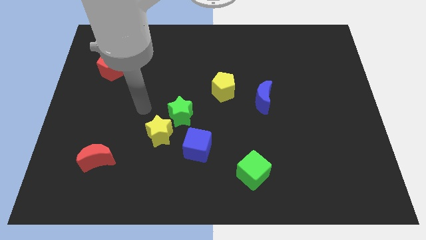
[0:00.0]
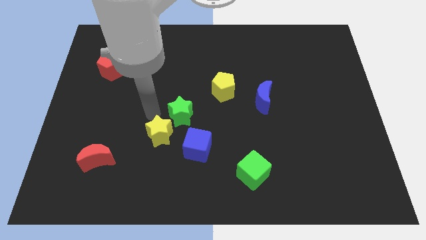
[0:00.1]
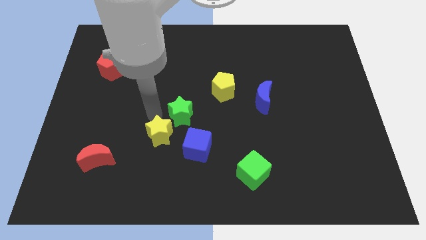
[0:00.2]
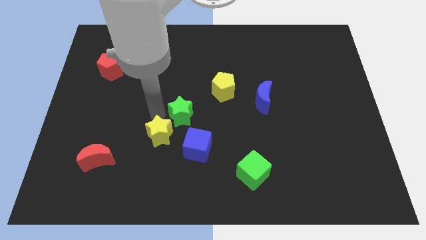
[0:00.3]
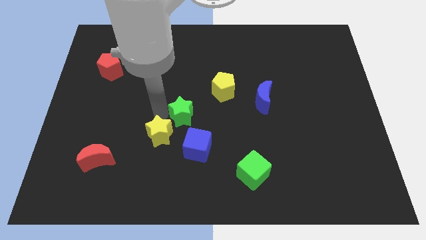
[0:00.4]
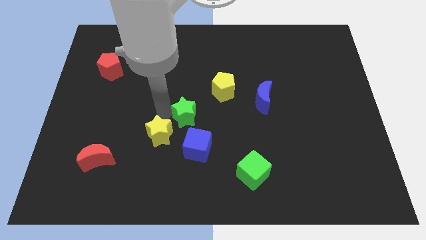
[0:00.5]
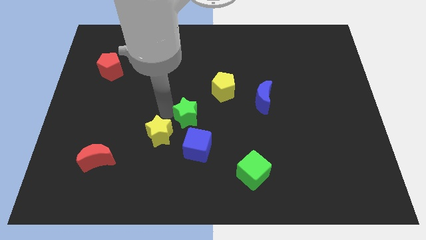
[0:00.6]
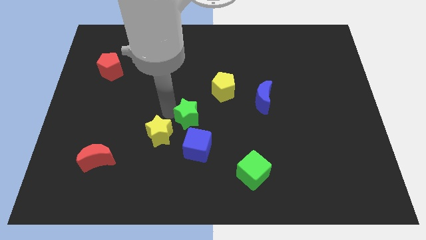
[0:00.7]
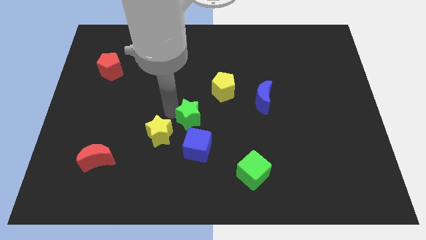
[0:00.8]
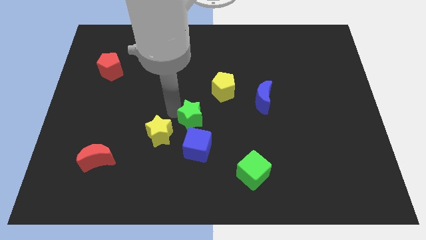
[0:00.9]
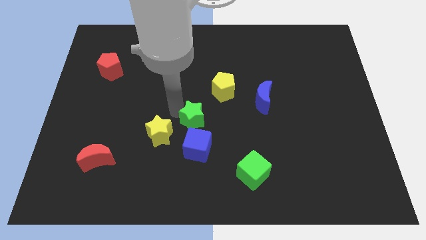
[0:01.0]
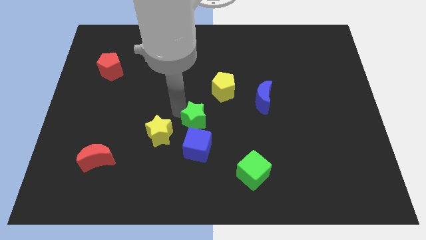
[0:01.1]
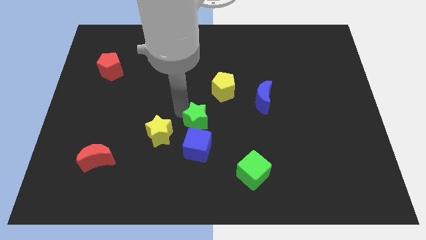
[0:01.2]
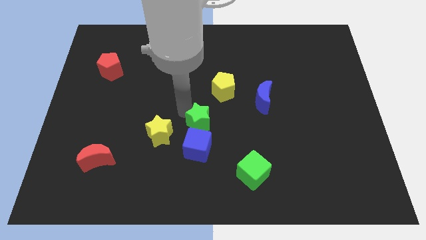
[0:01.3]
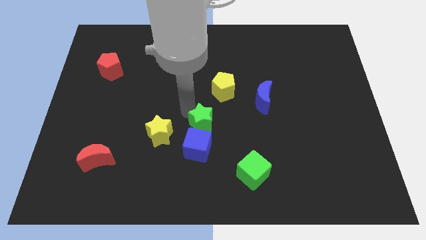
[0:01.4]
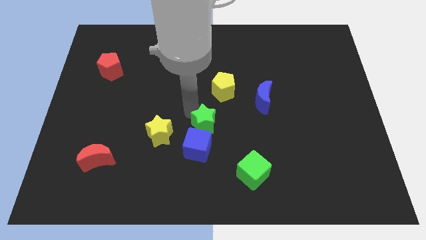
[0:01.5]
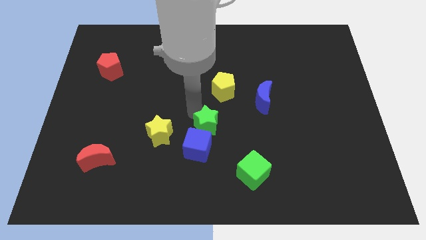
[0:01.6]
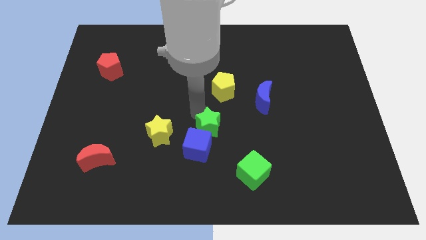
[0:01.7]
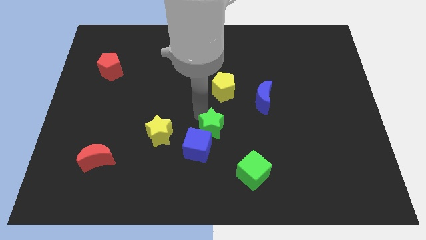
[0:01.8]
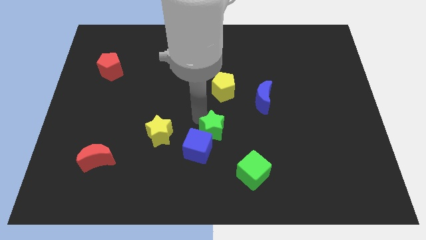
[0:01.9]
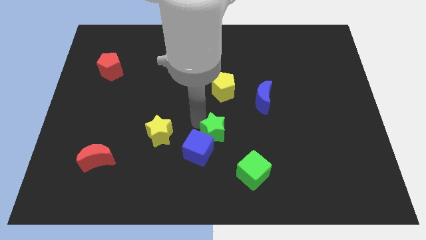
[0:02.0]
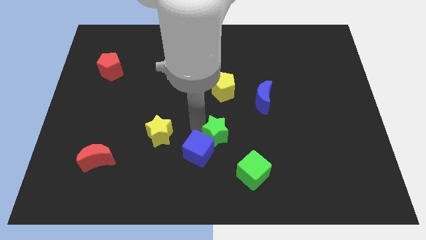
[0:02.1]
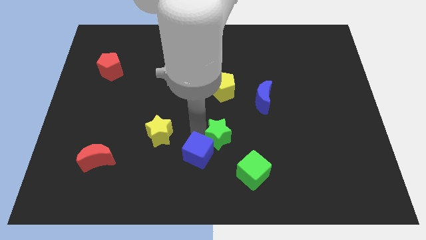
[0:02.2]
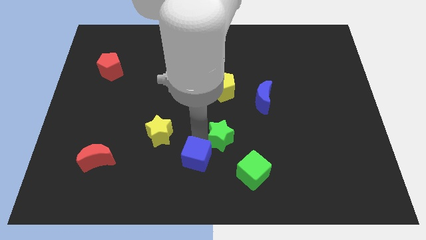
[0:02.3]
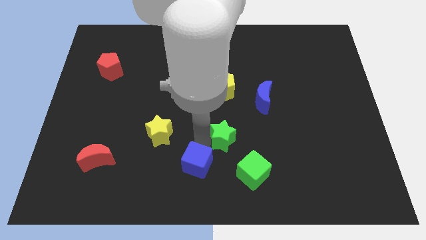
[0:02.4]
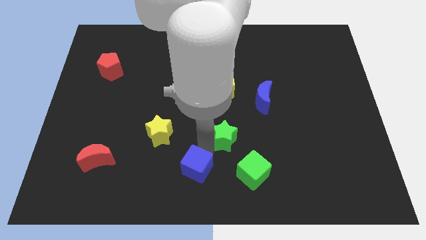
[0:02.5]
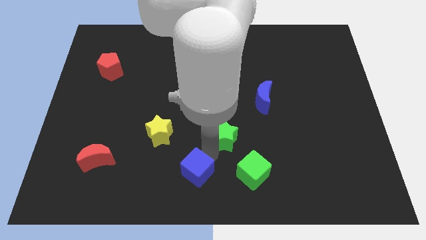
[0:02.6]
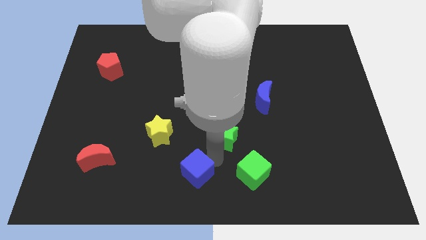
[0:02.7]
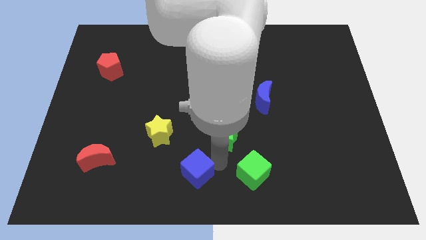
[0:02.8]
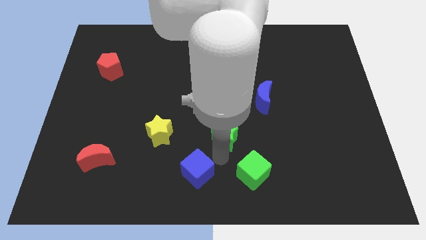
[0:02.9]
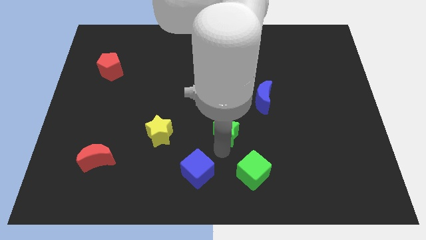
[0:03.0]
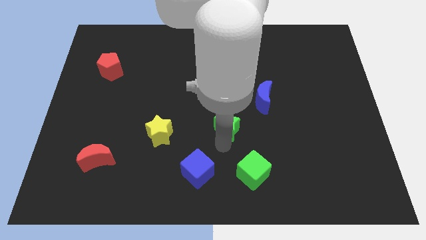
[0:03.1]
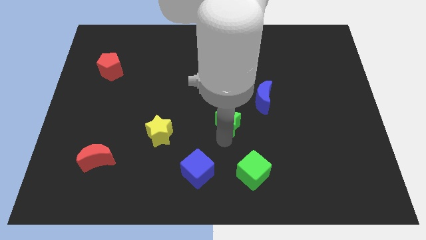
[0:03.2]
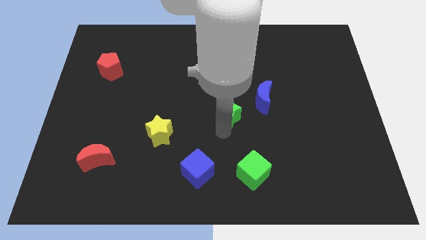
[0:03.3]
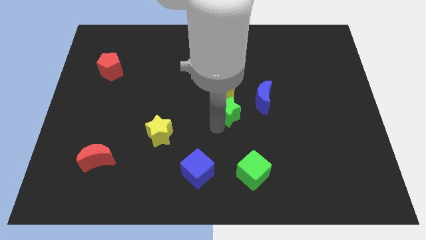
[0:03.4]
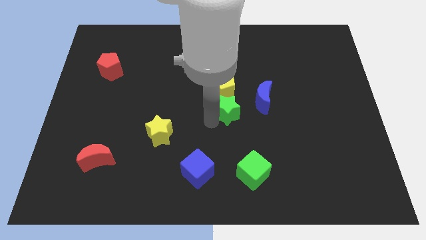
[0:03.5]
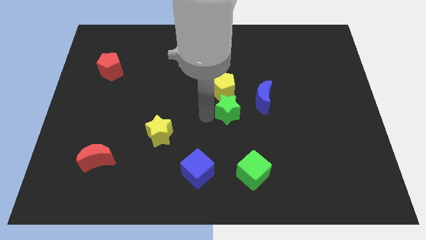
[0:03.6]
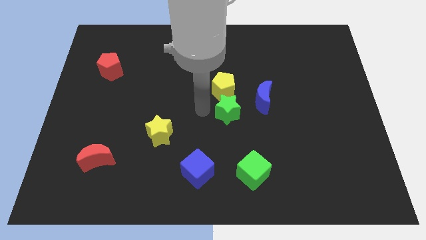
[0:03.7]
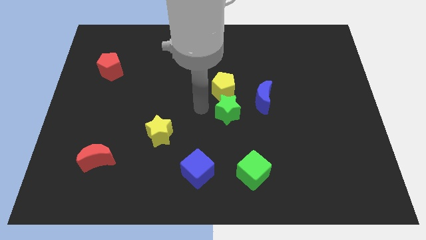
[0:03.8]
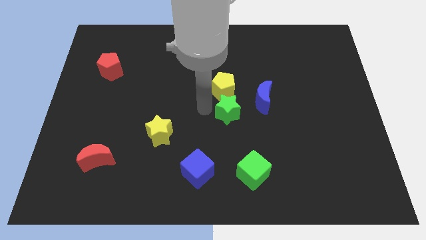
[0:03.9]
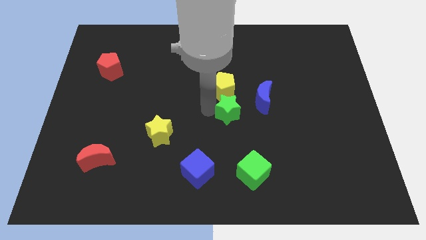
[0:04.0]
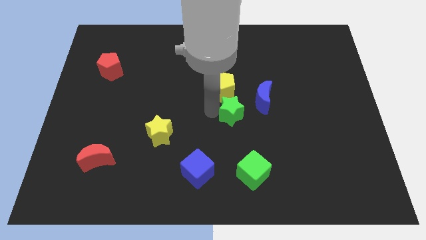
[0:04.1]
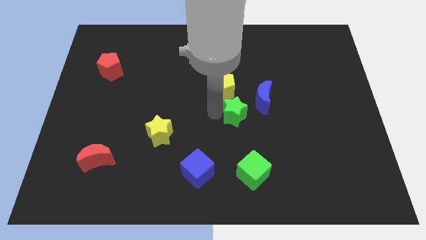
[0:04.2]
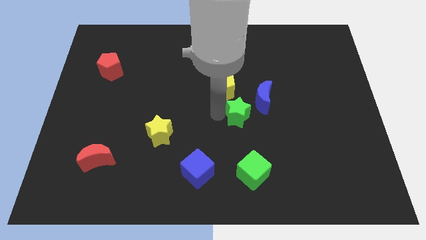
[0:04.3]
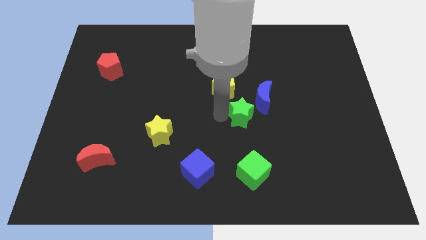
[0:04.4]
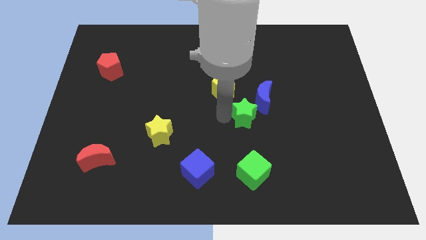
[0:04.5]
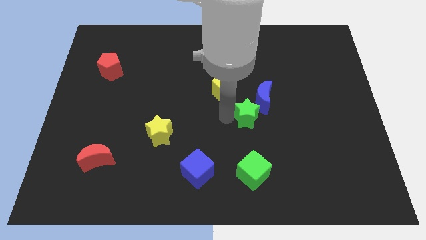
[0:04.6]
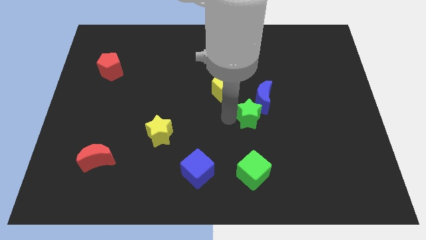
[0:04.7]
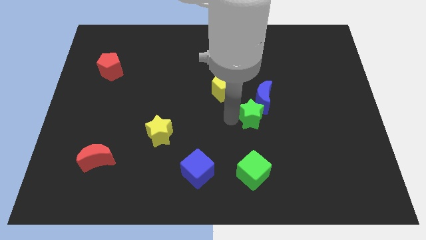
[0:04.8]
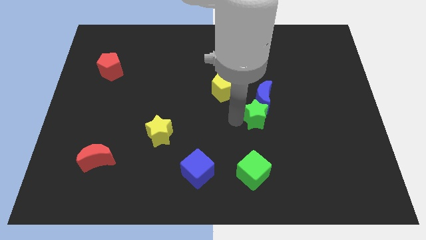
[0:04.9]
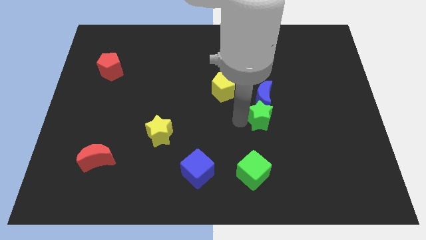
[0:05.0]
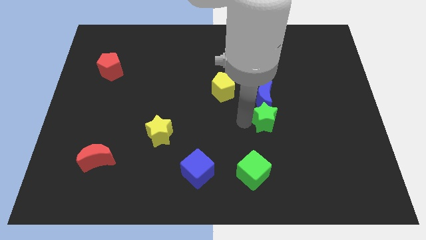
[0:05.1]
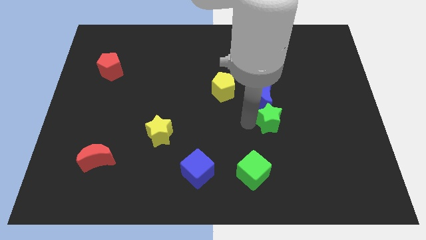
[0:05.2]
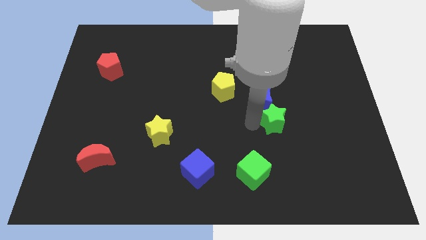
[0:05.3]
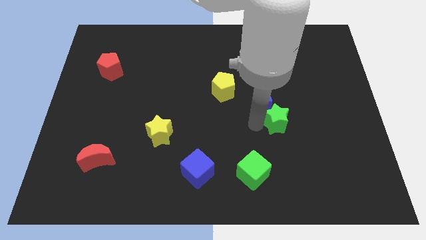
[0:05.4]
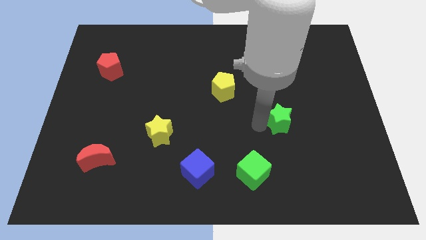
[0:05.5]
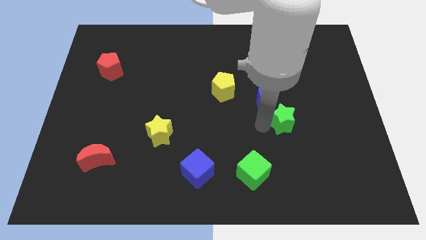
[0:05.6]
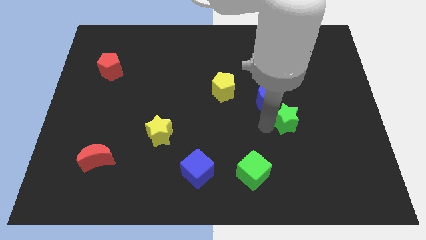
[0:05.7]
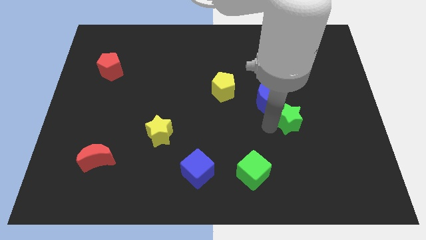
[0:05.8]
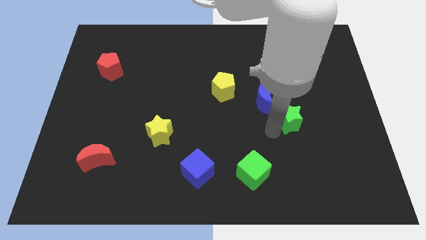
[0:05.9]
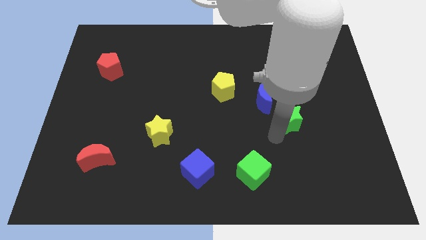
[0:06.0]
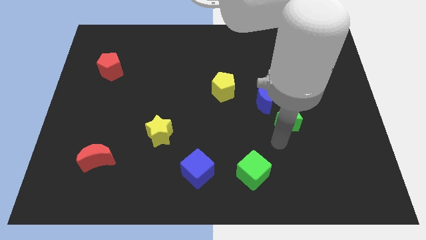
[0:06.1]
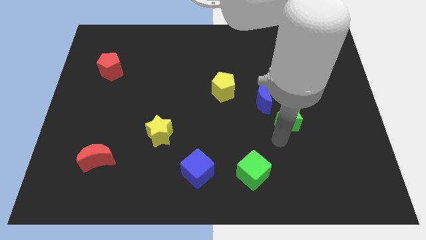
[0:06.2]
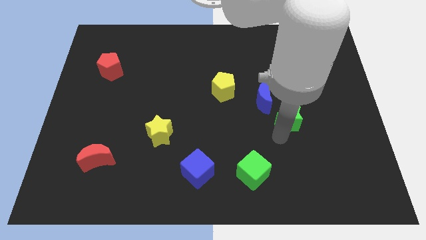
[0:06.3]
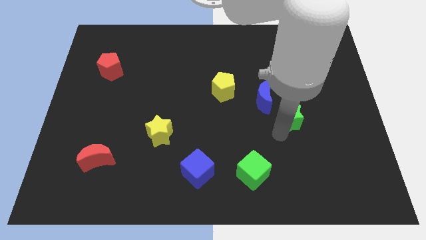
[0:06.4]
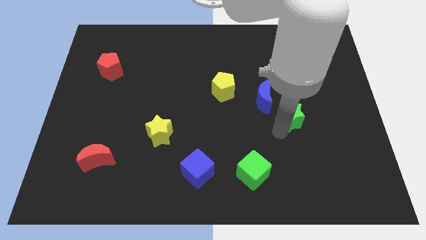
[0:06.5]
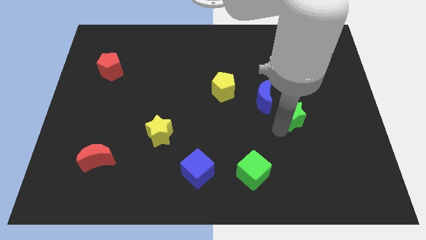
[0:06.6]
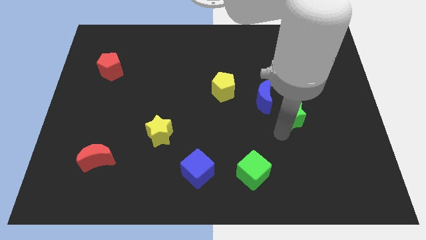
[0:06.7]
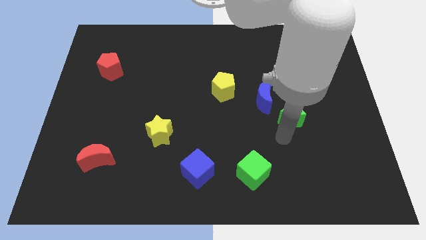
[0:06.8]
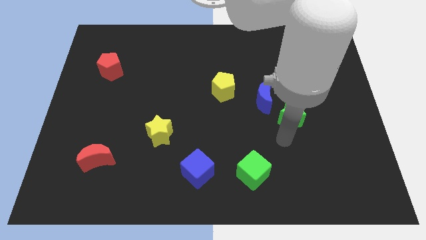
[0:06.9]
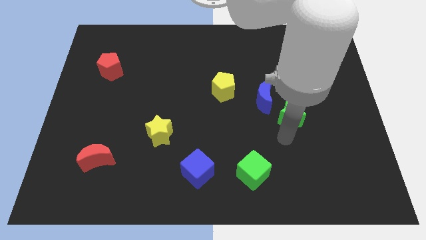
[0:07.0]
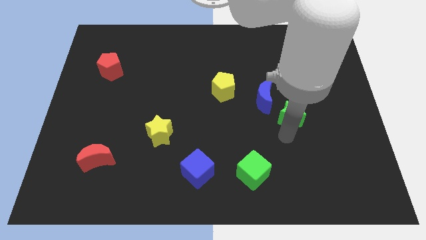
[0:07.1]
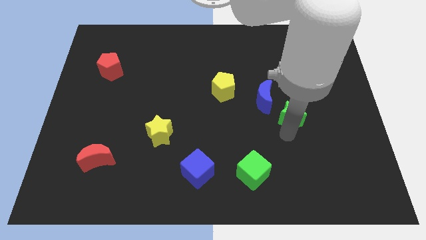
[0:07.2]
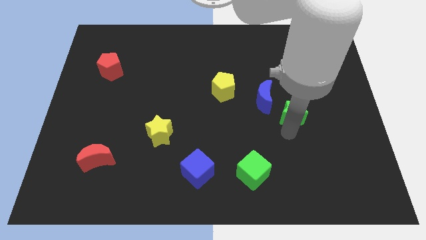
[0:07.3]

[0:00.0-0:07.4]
push the green star right of the blue moon

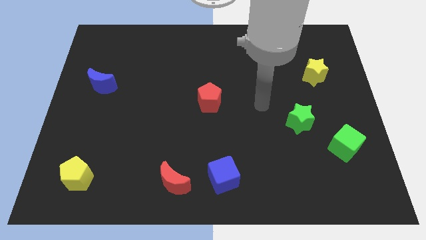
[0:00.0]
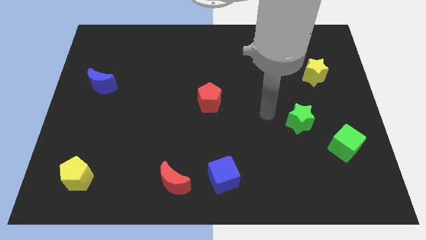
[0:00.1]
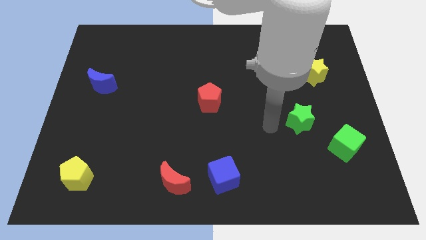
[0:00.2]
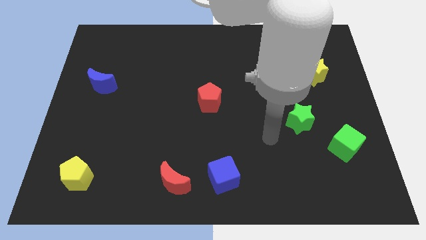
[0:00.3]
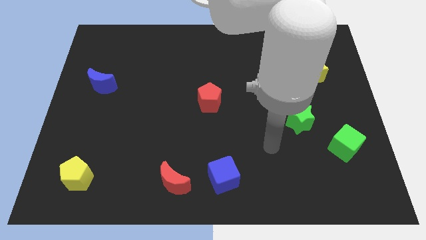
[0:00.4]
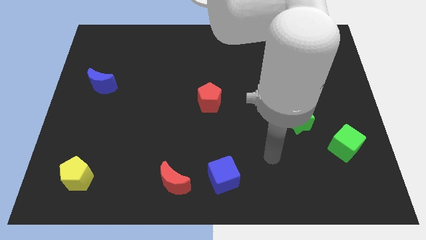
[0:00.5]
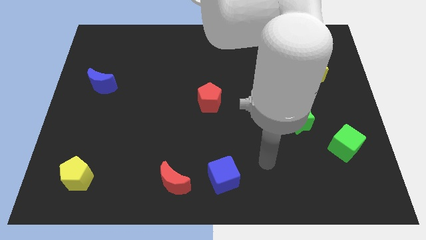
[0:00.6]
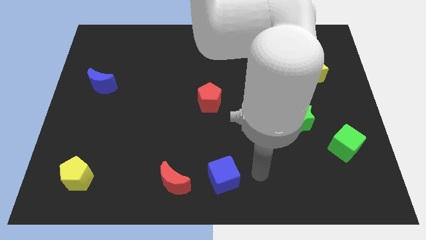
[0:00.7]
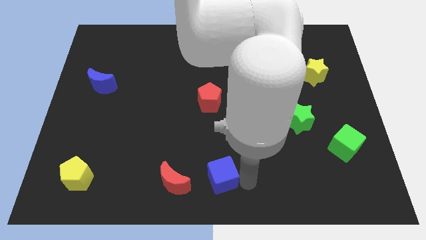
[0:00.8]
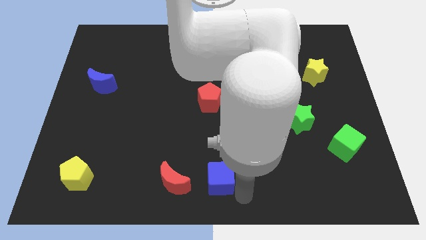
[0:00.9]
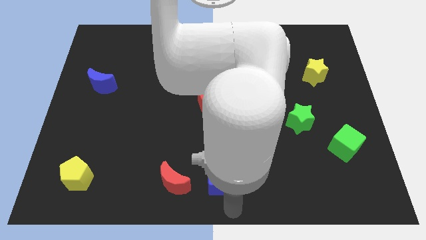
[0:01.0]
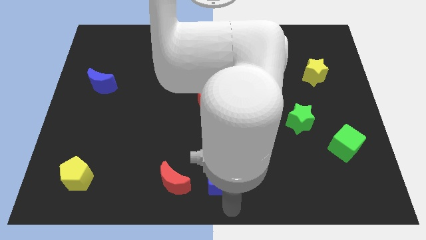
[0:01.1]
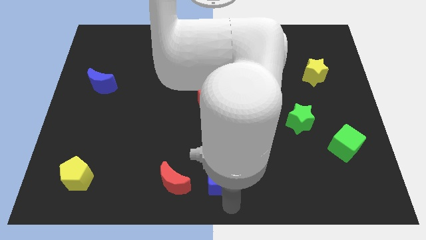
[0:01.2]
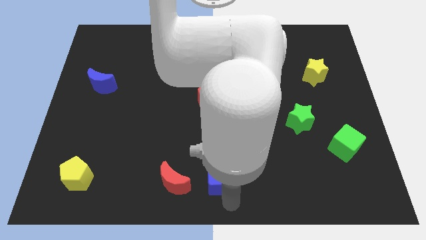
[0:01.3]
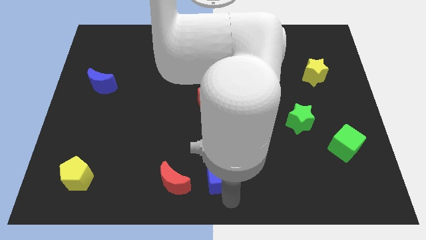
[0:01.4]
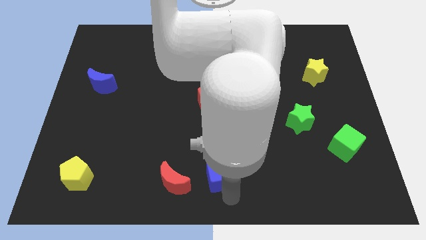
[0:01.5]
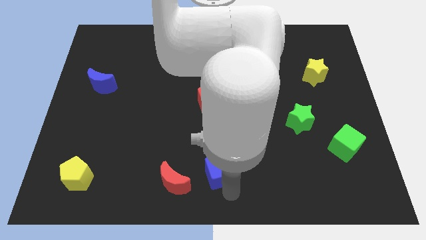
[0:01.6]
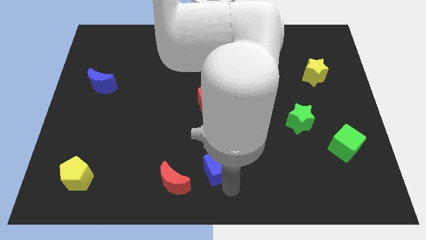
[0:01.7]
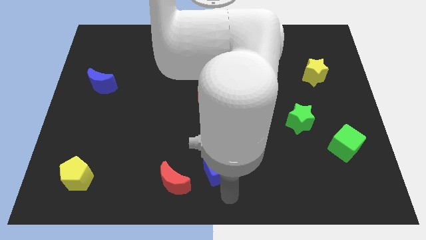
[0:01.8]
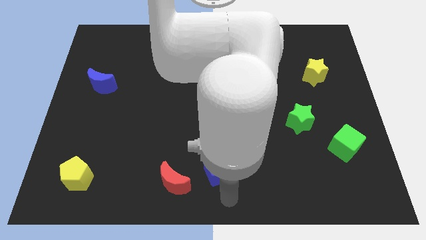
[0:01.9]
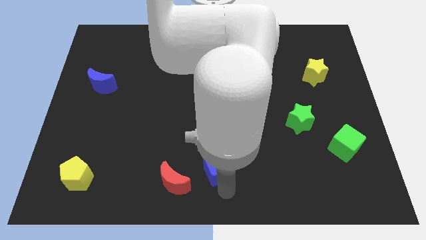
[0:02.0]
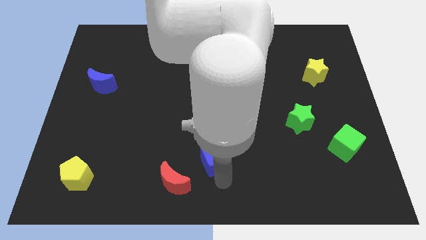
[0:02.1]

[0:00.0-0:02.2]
move the blue cube to the bottom side of the red pentagon
